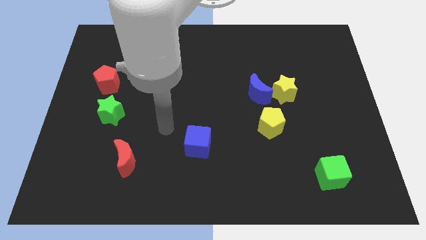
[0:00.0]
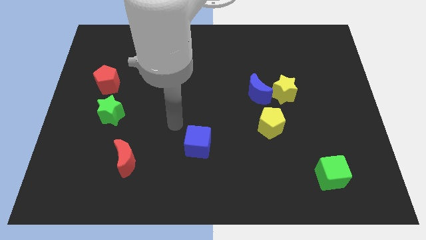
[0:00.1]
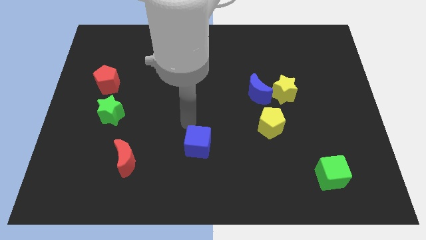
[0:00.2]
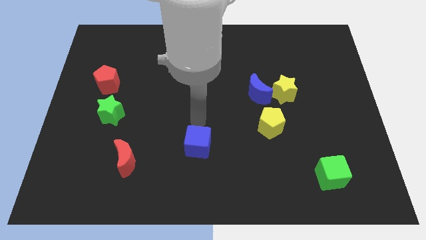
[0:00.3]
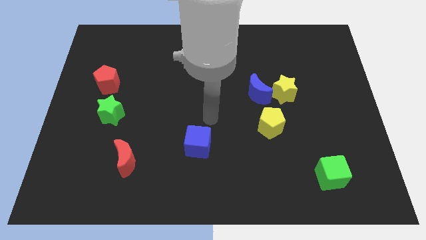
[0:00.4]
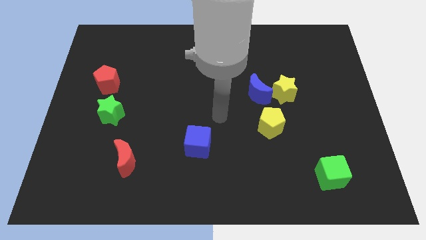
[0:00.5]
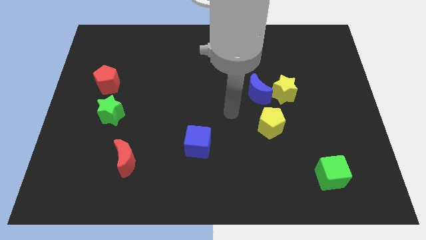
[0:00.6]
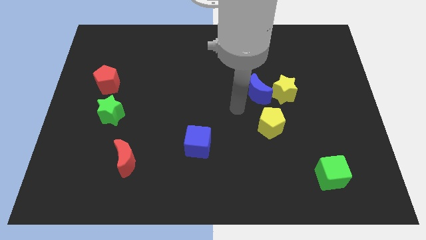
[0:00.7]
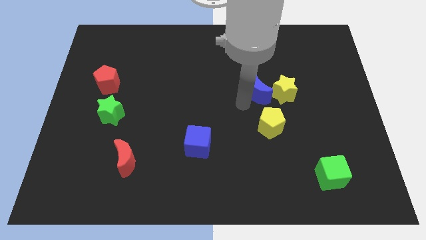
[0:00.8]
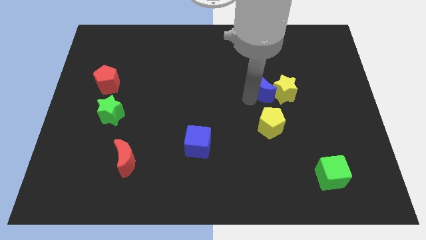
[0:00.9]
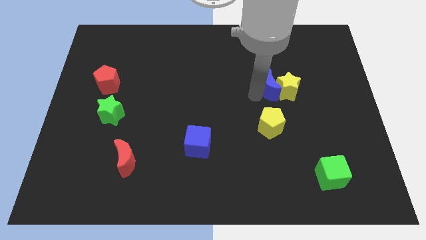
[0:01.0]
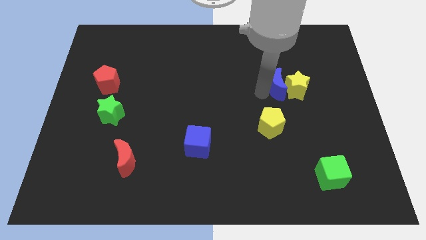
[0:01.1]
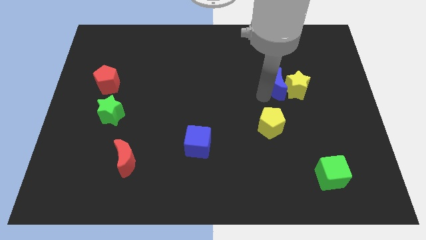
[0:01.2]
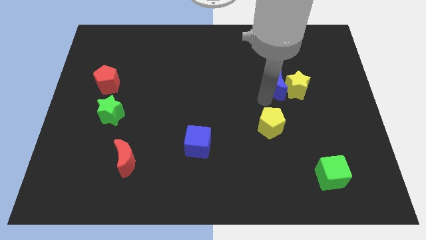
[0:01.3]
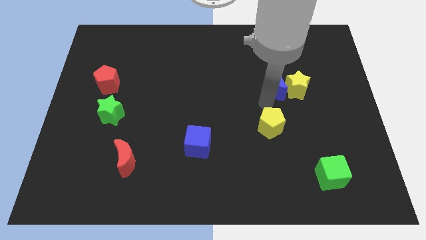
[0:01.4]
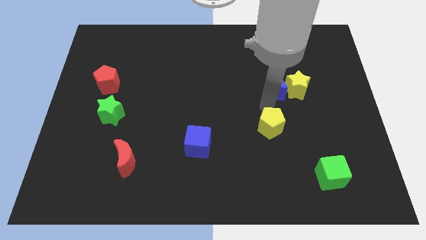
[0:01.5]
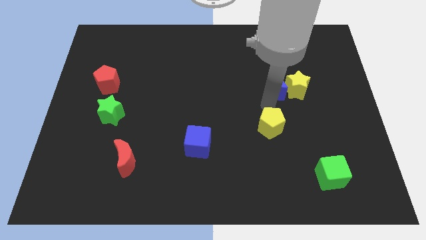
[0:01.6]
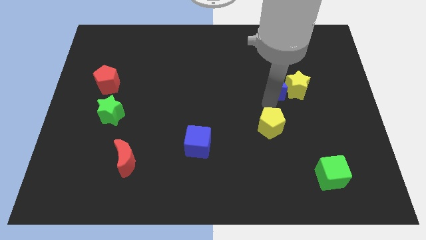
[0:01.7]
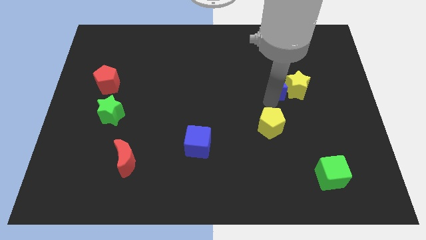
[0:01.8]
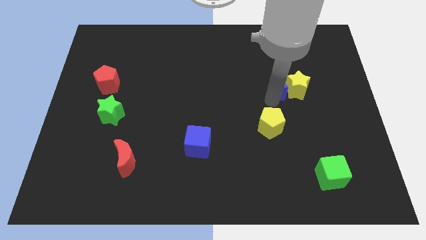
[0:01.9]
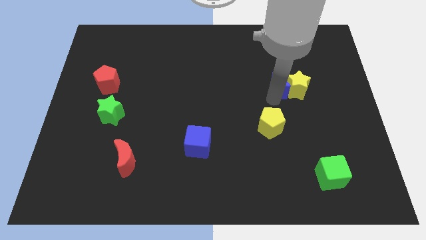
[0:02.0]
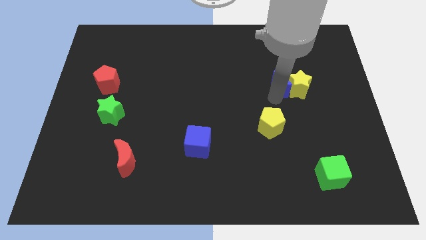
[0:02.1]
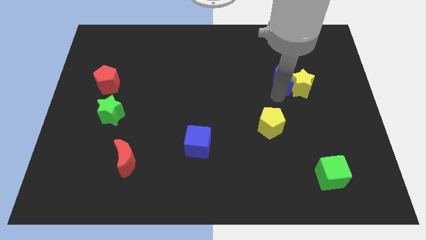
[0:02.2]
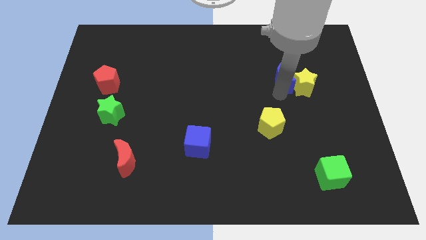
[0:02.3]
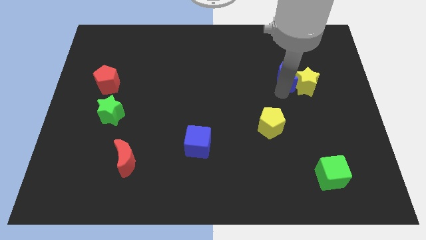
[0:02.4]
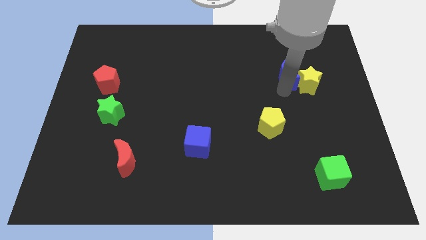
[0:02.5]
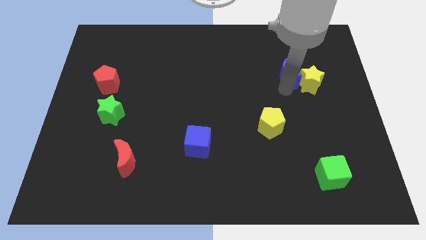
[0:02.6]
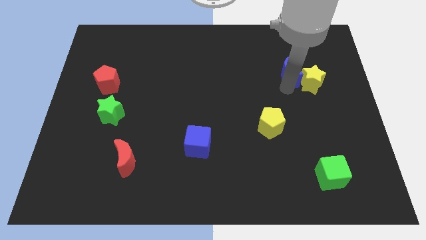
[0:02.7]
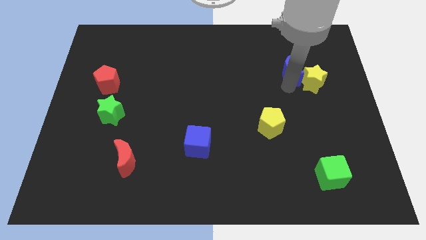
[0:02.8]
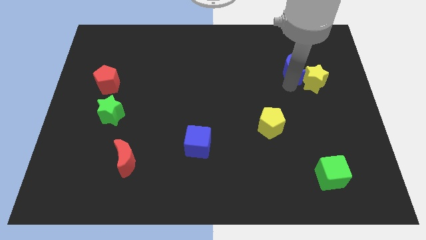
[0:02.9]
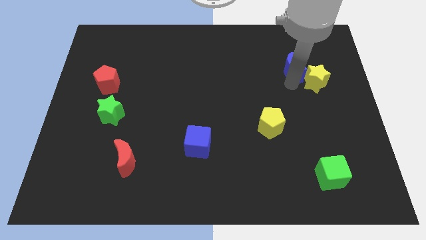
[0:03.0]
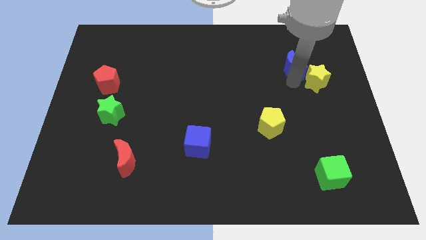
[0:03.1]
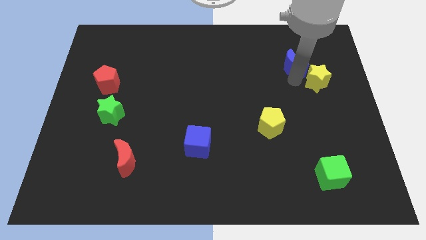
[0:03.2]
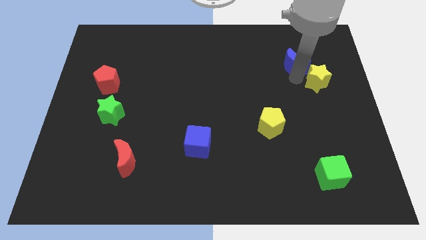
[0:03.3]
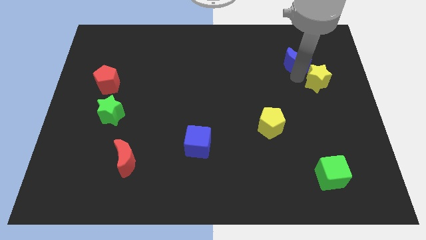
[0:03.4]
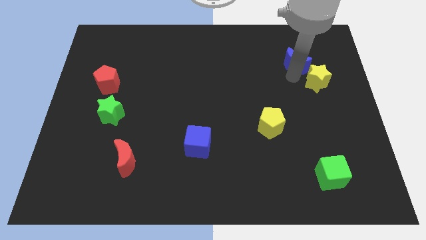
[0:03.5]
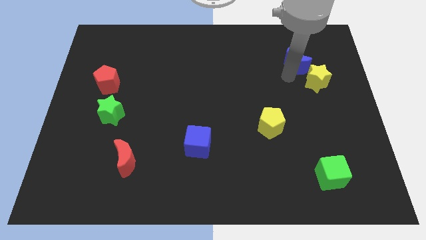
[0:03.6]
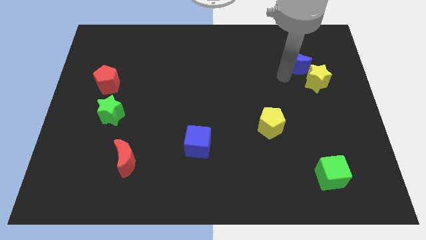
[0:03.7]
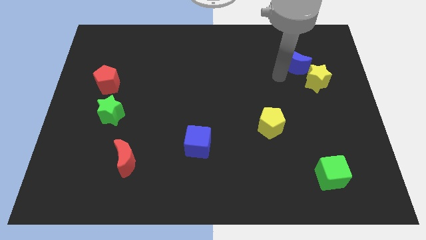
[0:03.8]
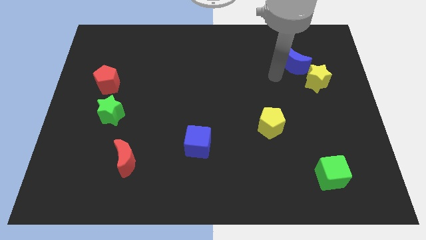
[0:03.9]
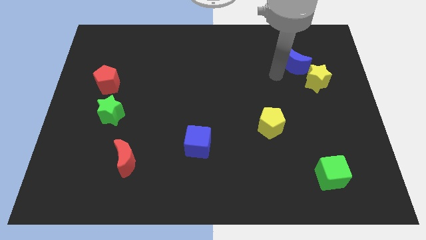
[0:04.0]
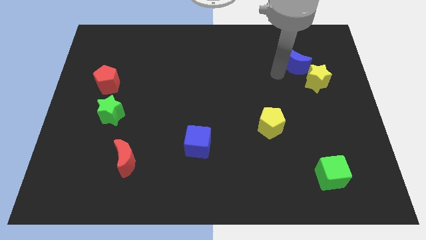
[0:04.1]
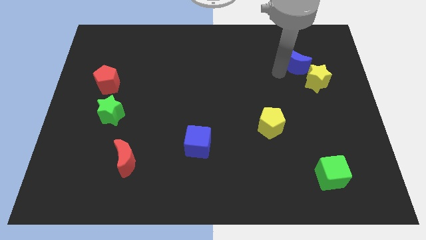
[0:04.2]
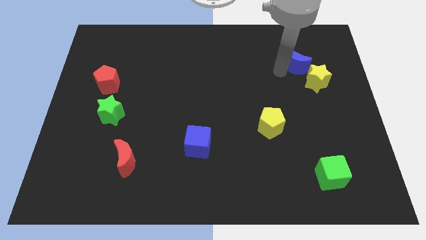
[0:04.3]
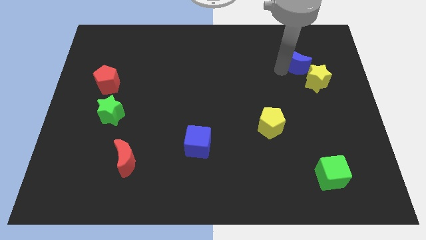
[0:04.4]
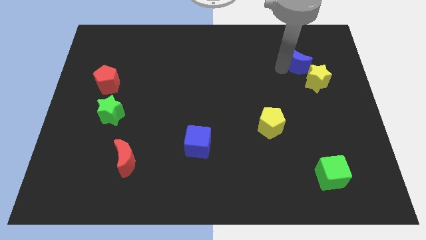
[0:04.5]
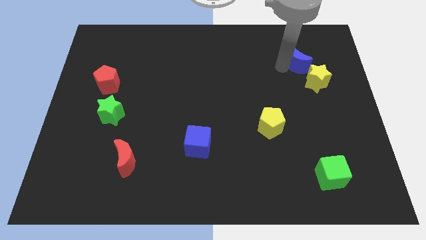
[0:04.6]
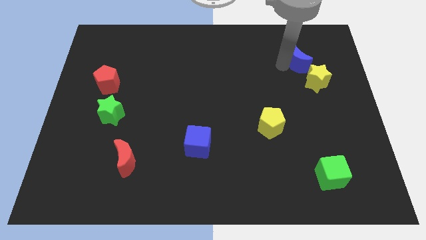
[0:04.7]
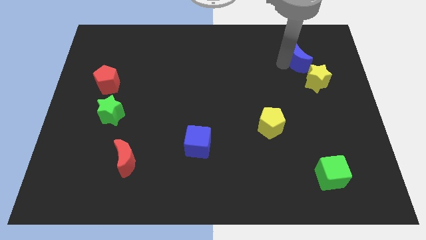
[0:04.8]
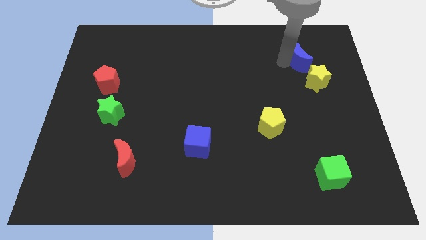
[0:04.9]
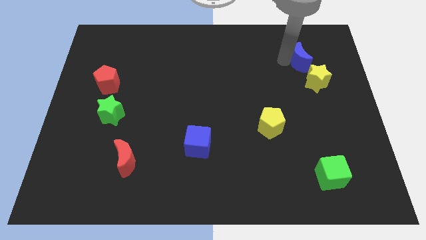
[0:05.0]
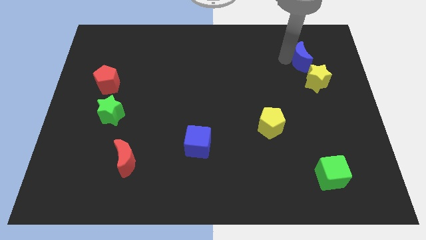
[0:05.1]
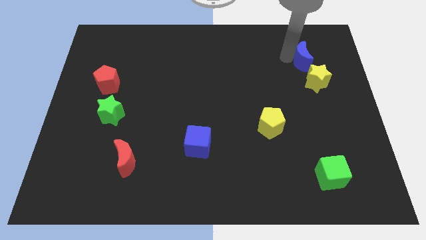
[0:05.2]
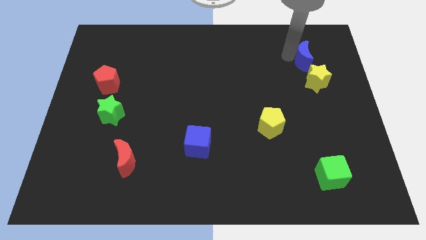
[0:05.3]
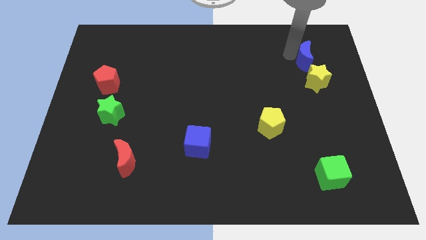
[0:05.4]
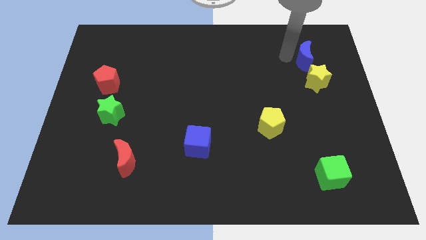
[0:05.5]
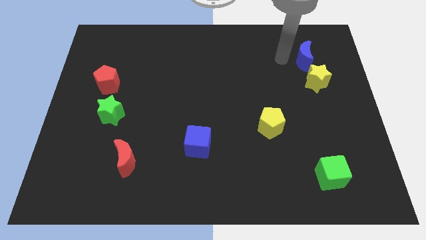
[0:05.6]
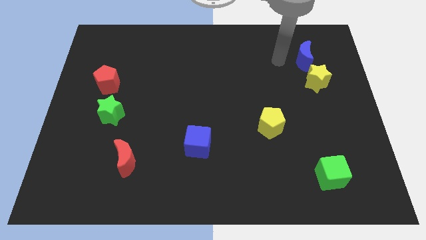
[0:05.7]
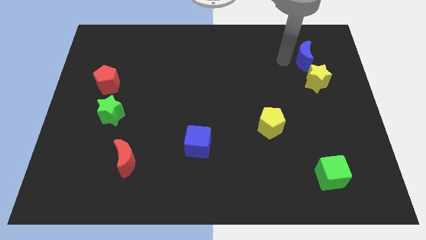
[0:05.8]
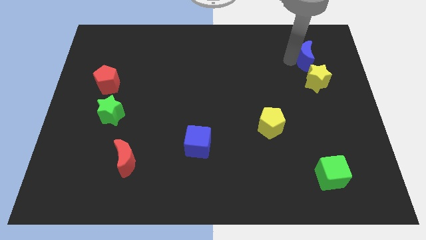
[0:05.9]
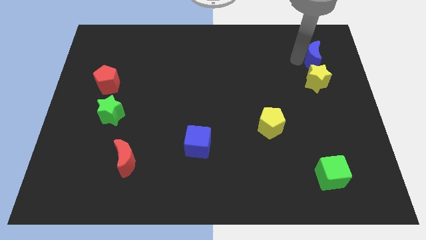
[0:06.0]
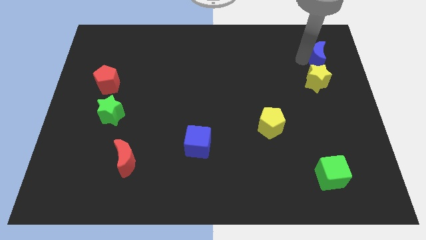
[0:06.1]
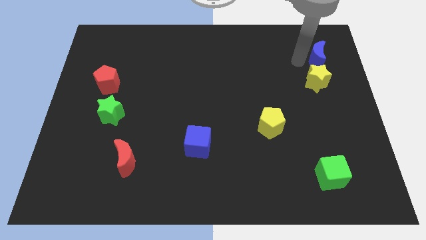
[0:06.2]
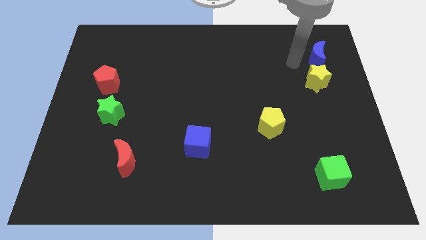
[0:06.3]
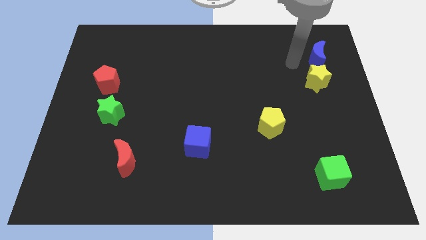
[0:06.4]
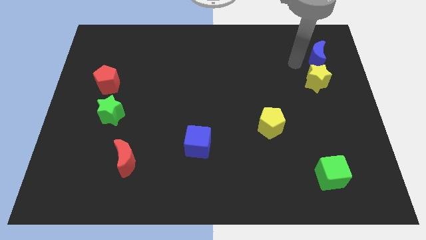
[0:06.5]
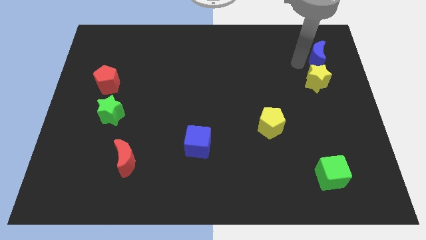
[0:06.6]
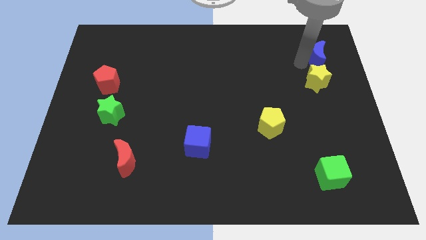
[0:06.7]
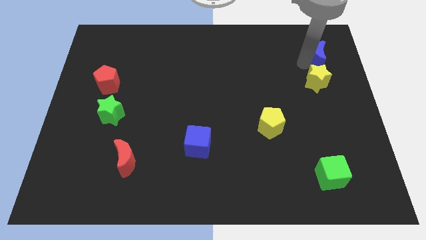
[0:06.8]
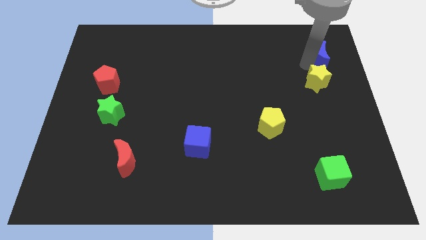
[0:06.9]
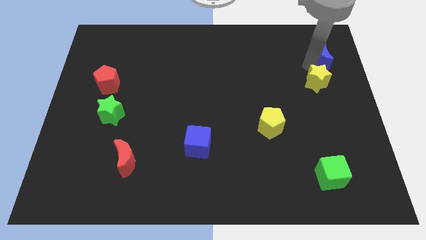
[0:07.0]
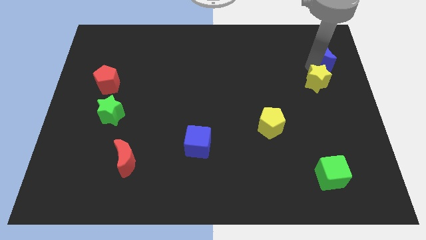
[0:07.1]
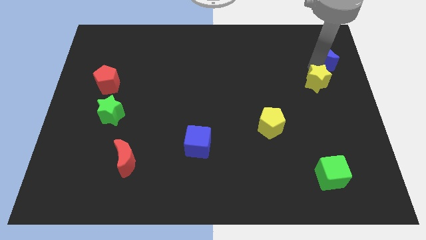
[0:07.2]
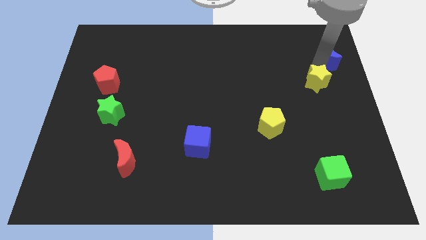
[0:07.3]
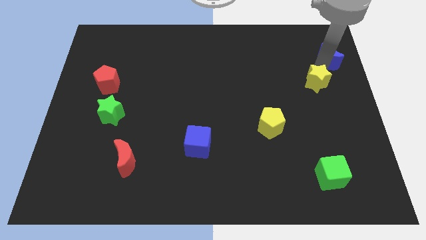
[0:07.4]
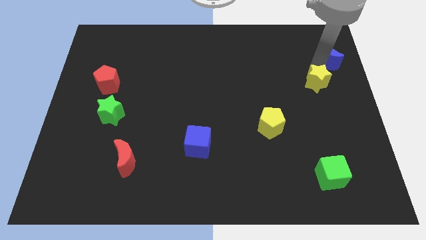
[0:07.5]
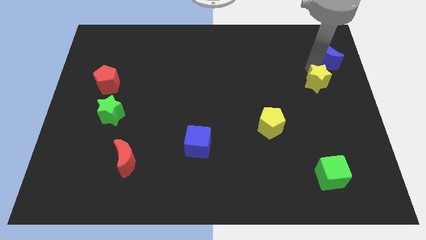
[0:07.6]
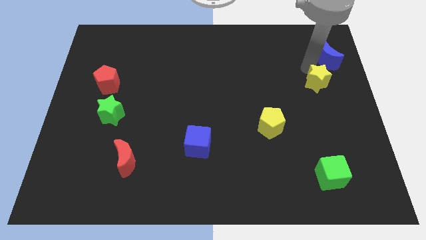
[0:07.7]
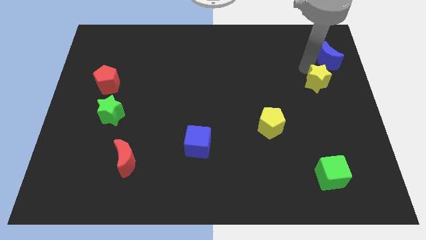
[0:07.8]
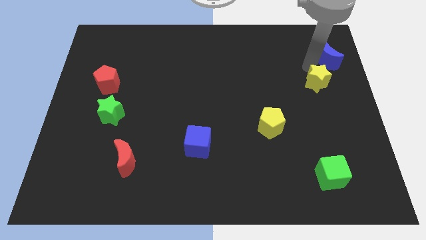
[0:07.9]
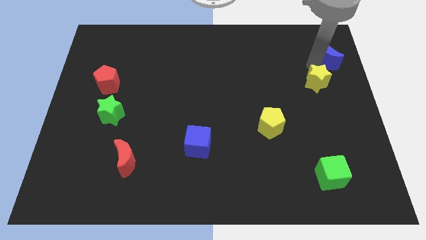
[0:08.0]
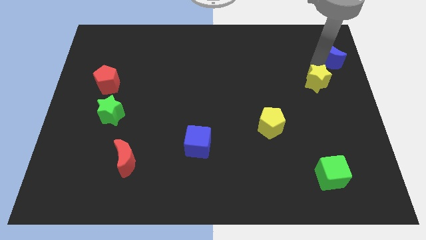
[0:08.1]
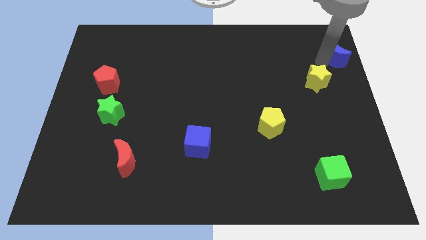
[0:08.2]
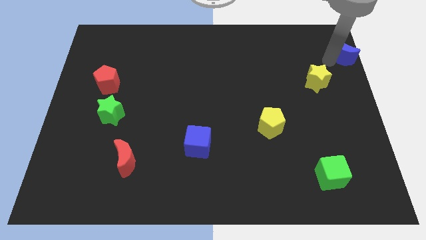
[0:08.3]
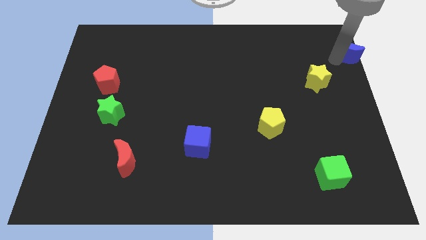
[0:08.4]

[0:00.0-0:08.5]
push the blue moon to the top right of the board
